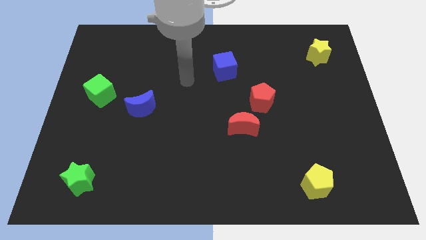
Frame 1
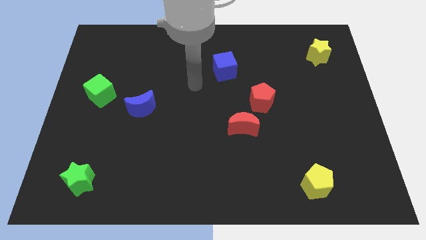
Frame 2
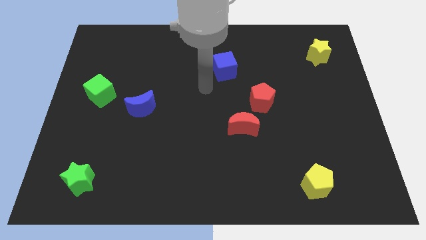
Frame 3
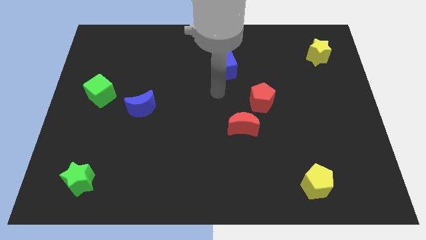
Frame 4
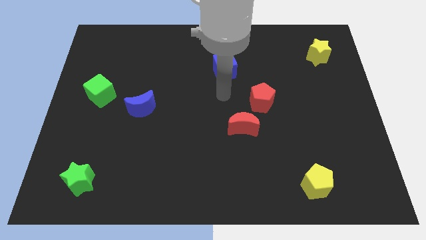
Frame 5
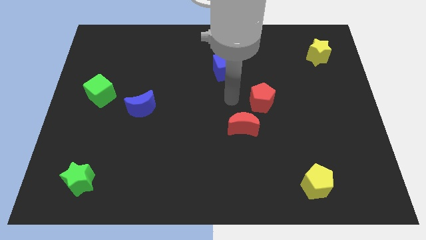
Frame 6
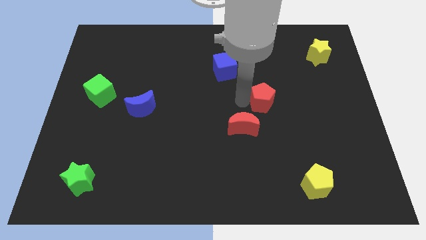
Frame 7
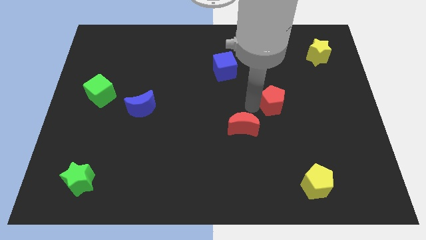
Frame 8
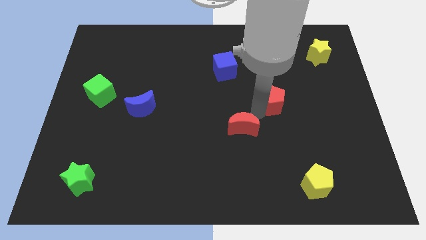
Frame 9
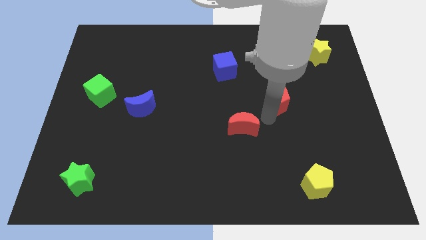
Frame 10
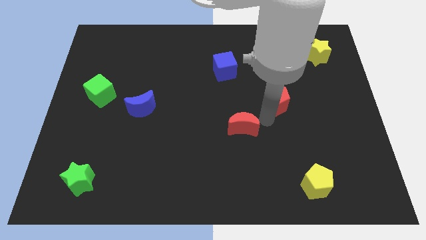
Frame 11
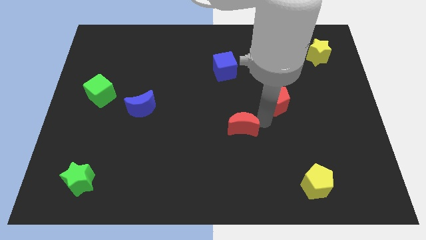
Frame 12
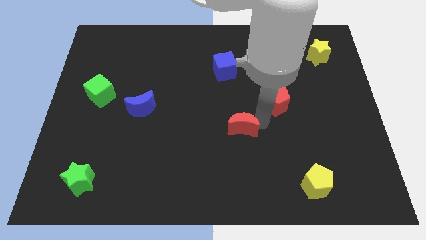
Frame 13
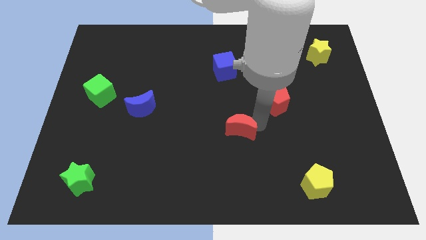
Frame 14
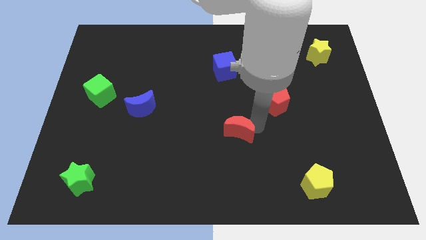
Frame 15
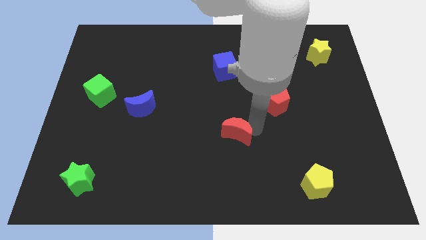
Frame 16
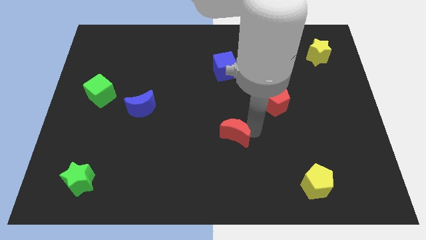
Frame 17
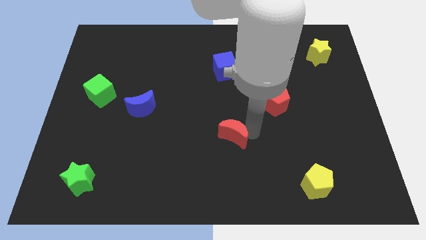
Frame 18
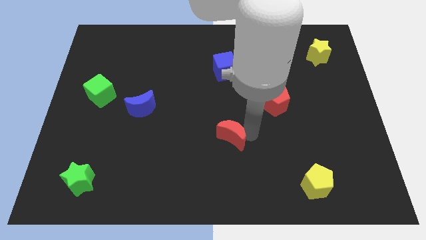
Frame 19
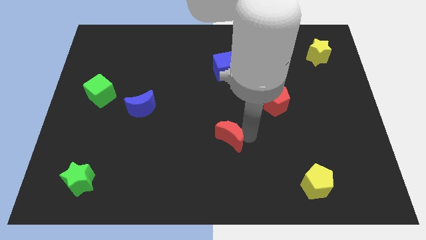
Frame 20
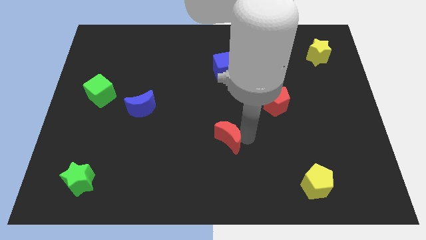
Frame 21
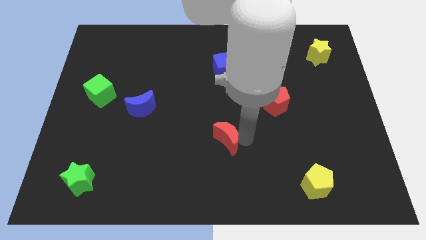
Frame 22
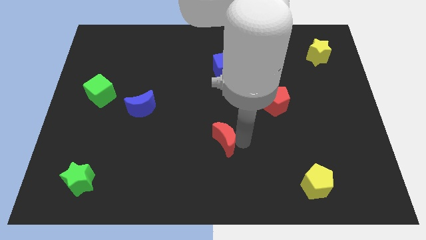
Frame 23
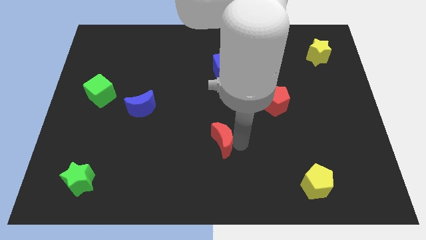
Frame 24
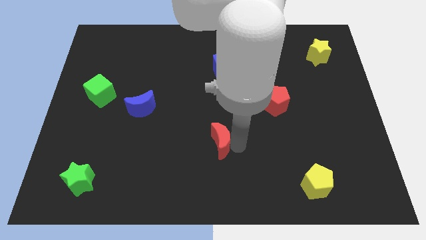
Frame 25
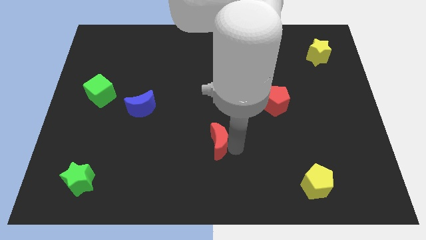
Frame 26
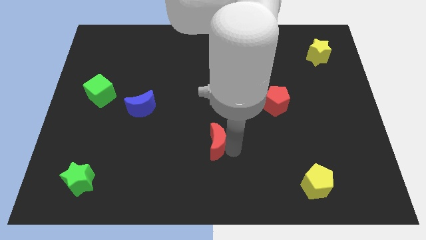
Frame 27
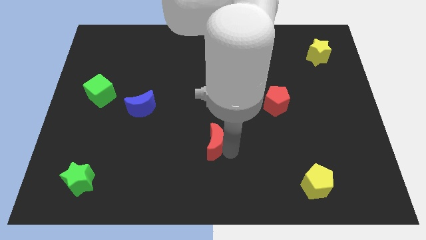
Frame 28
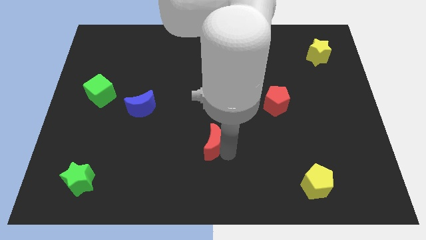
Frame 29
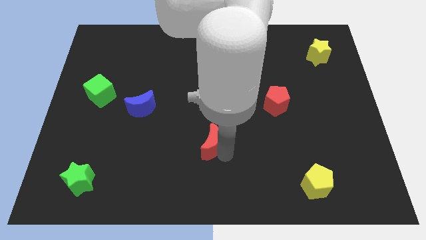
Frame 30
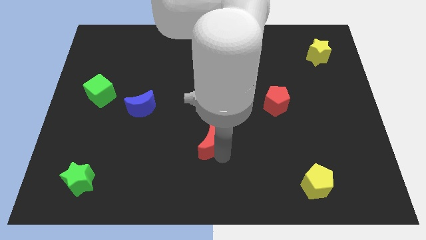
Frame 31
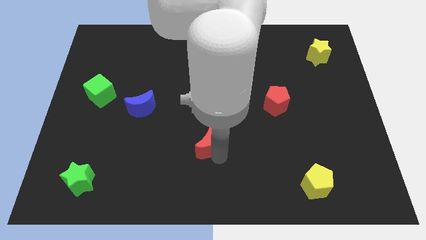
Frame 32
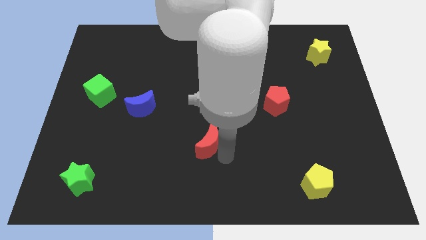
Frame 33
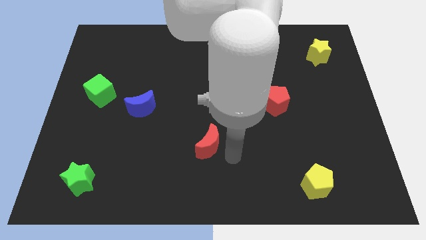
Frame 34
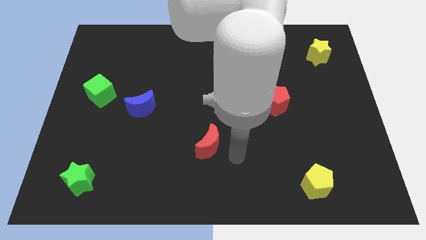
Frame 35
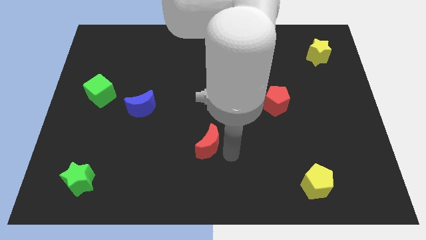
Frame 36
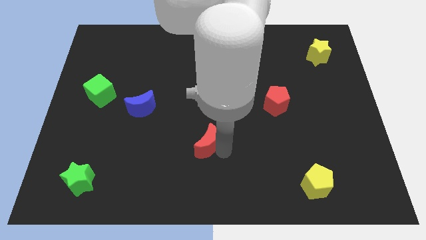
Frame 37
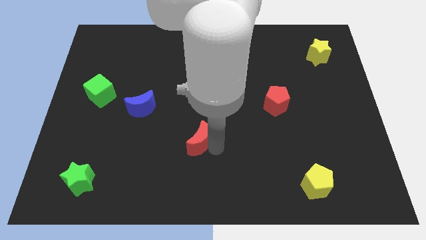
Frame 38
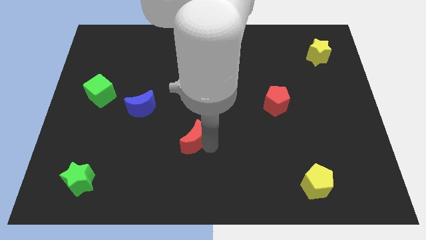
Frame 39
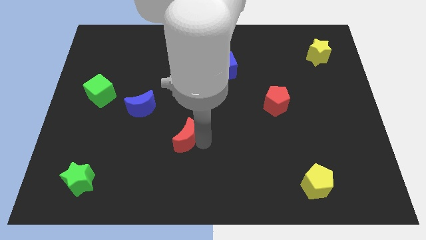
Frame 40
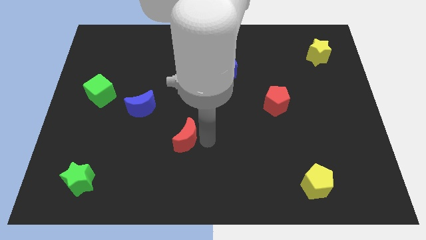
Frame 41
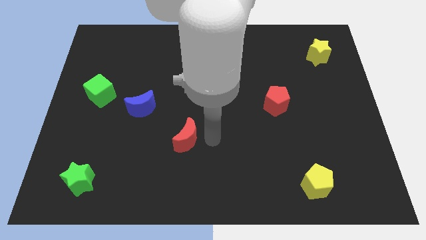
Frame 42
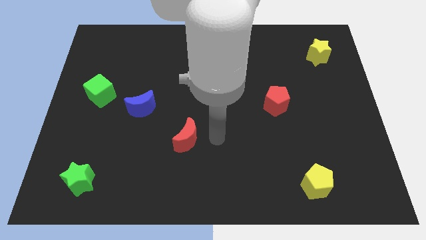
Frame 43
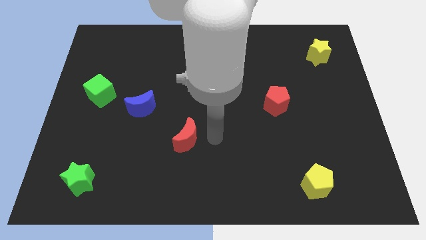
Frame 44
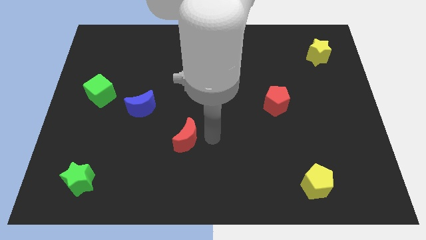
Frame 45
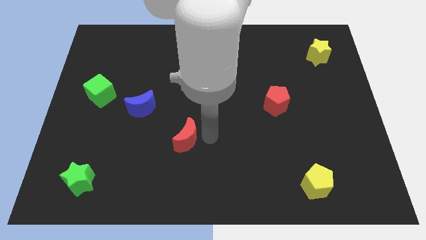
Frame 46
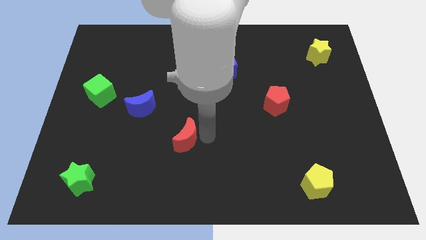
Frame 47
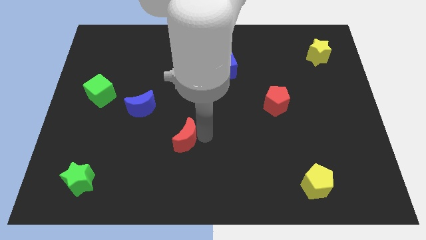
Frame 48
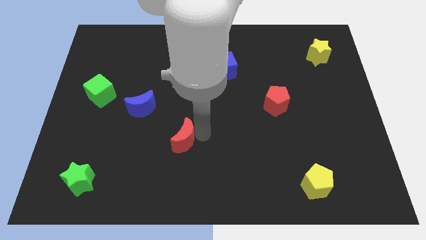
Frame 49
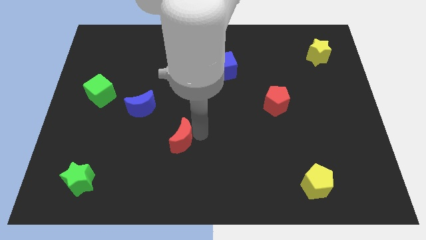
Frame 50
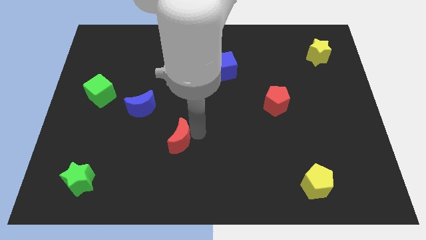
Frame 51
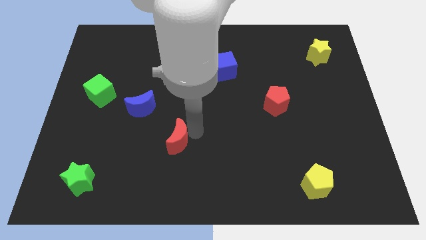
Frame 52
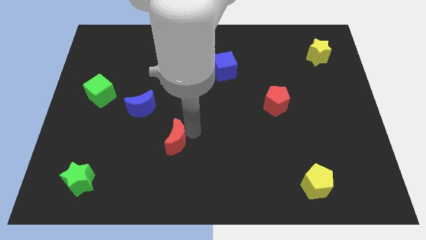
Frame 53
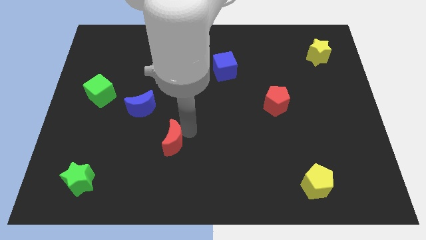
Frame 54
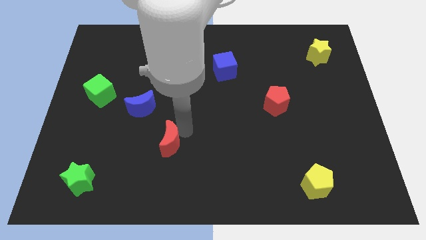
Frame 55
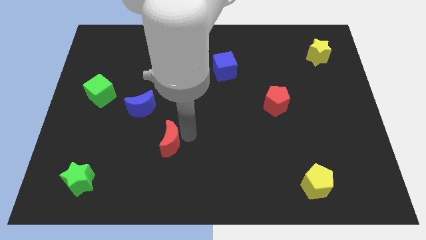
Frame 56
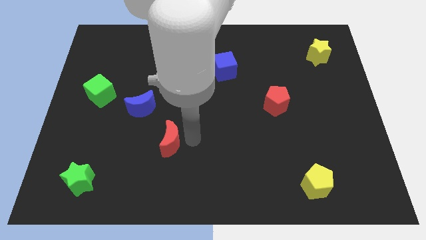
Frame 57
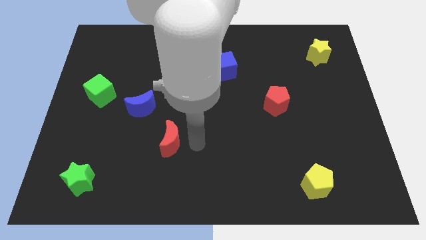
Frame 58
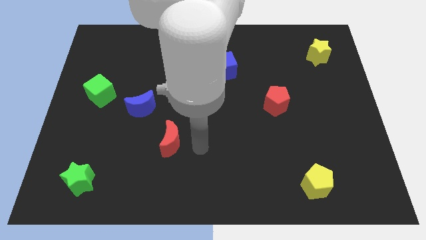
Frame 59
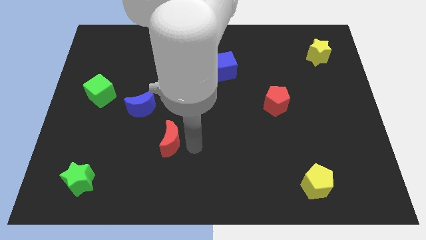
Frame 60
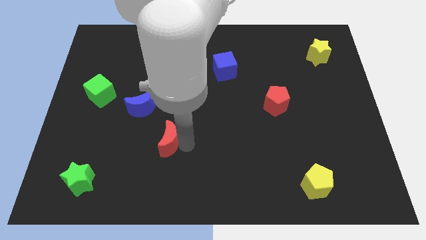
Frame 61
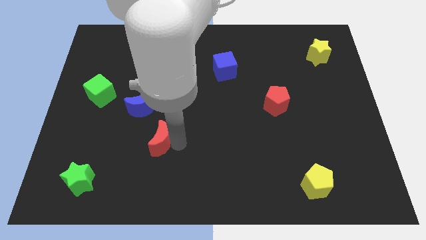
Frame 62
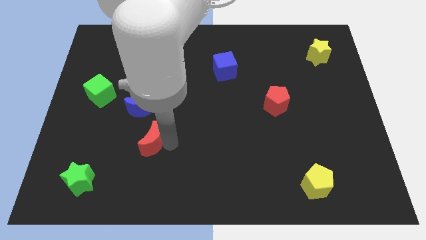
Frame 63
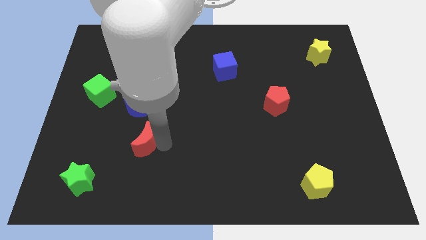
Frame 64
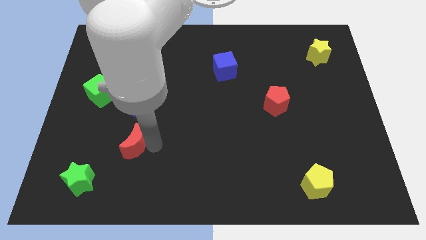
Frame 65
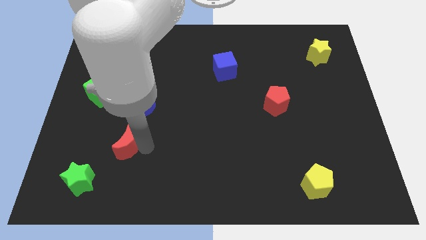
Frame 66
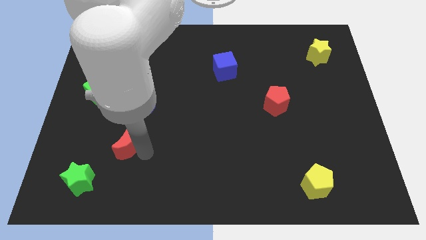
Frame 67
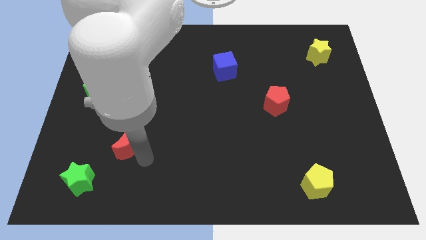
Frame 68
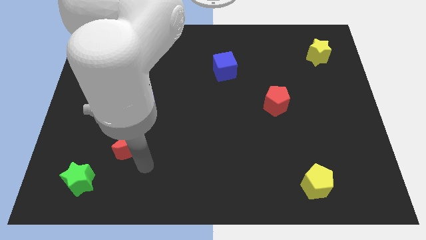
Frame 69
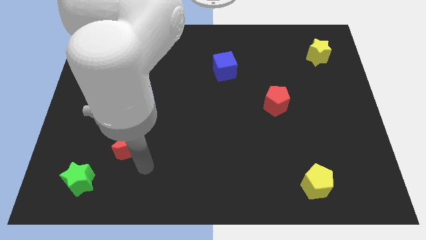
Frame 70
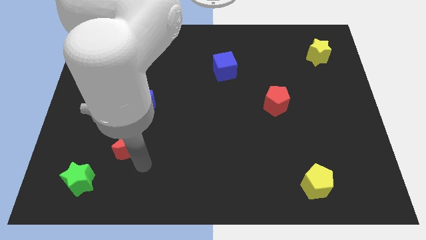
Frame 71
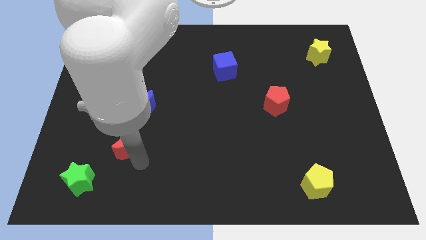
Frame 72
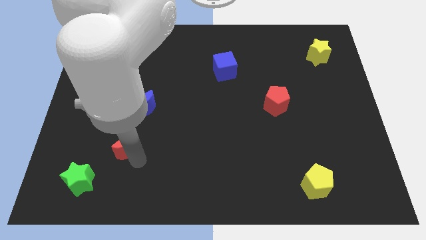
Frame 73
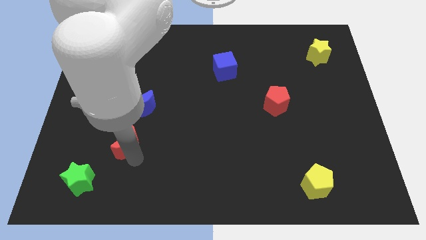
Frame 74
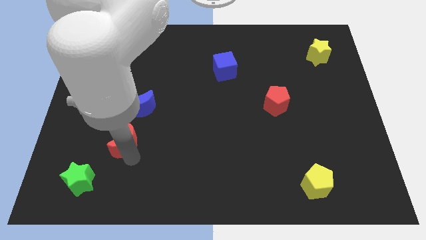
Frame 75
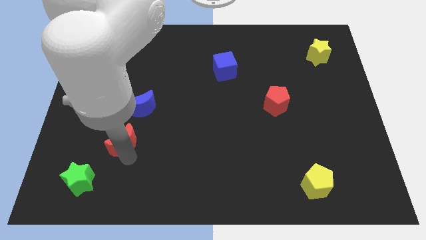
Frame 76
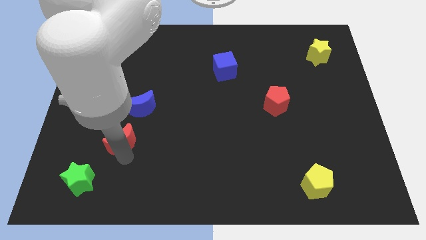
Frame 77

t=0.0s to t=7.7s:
put the red moon diagonally down and to the left of the blue moon
